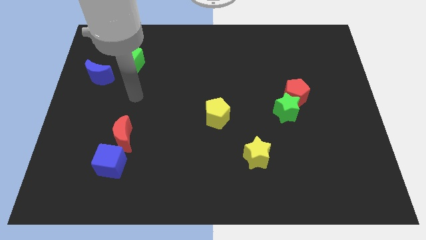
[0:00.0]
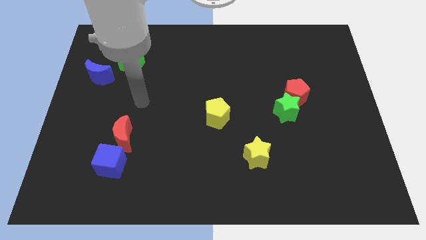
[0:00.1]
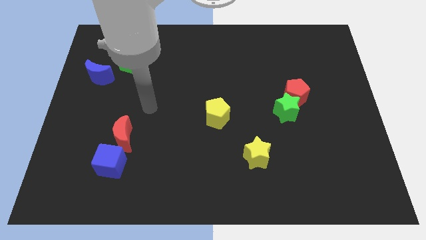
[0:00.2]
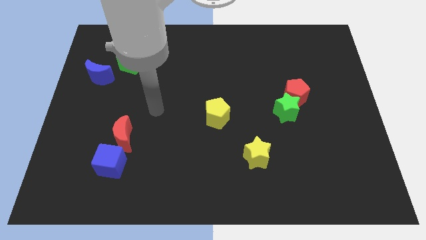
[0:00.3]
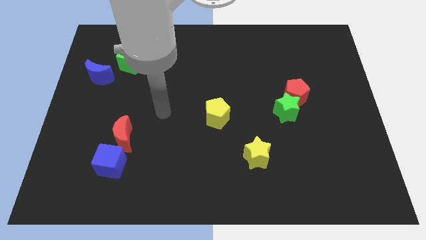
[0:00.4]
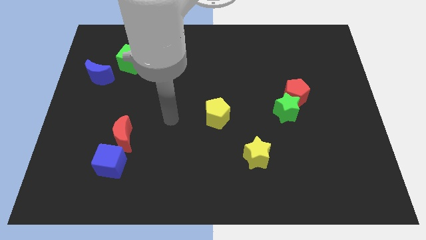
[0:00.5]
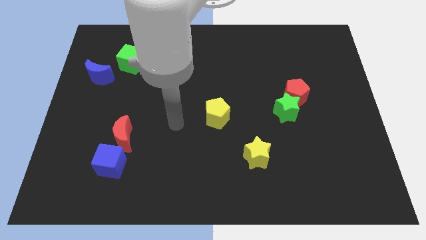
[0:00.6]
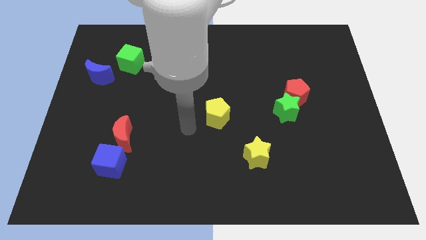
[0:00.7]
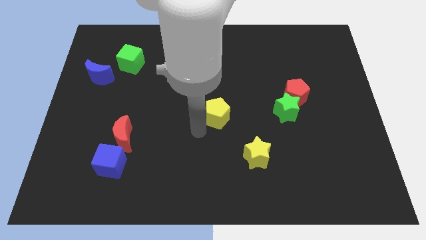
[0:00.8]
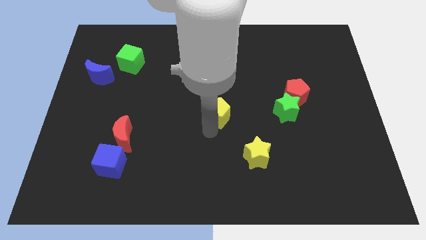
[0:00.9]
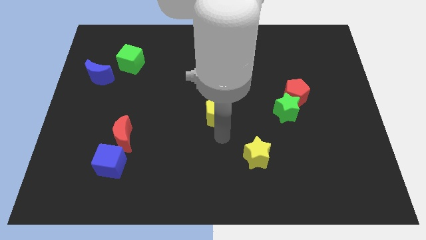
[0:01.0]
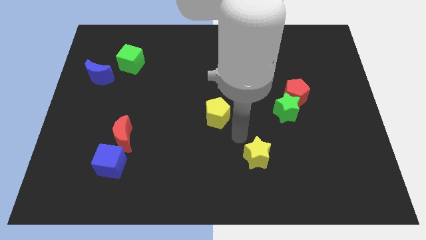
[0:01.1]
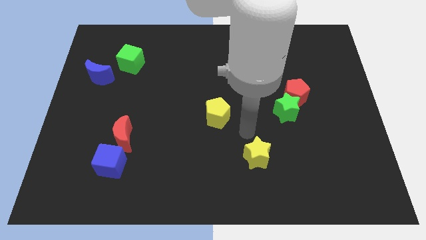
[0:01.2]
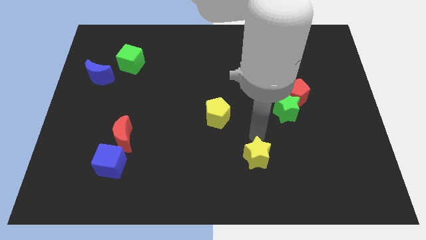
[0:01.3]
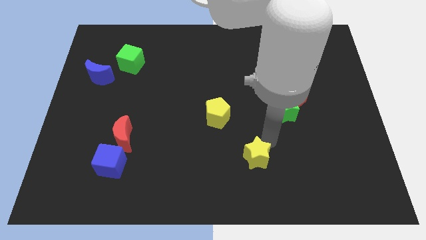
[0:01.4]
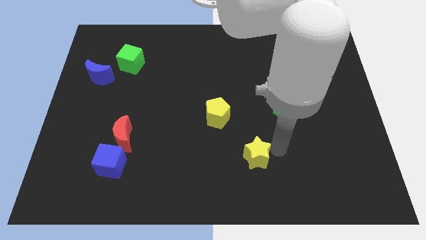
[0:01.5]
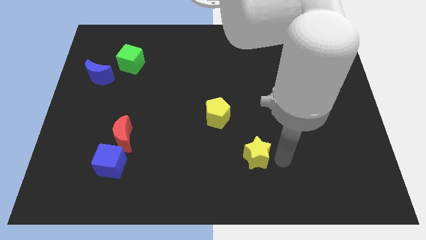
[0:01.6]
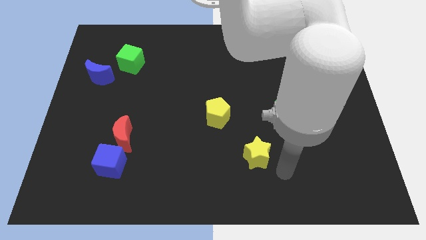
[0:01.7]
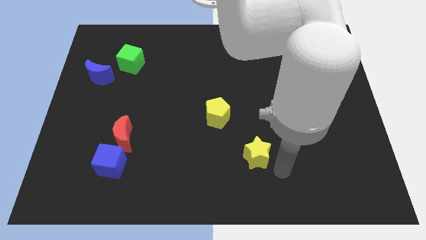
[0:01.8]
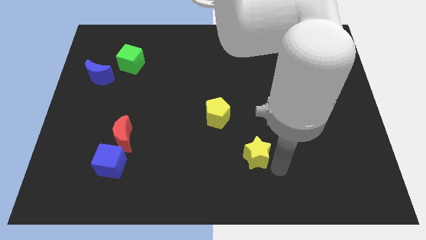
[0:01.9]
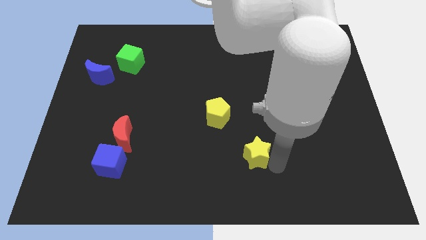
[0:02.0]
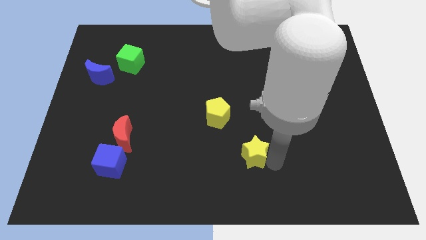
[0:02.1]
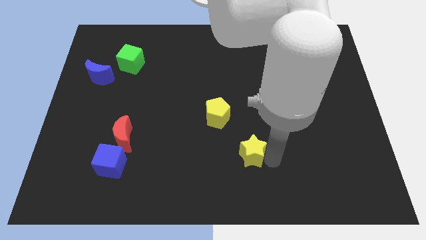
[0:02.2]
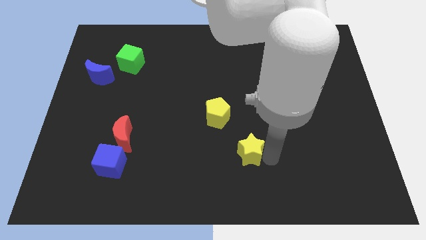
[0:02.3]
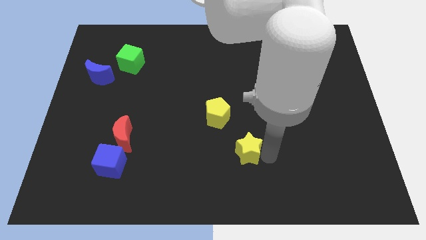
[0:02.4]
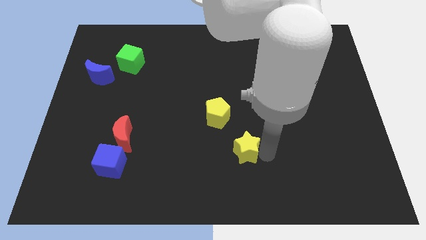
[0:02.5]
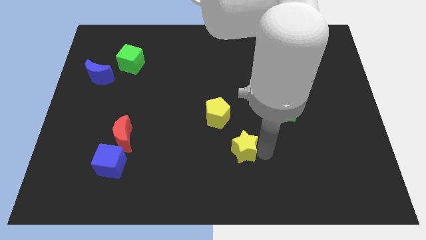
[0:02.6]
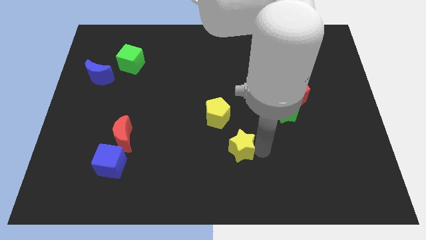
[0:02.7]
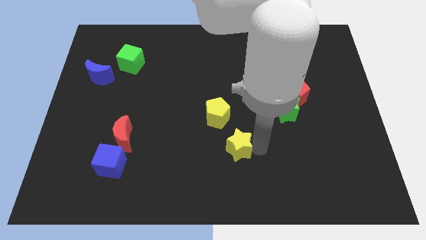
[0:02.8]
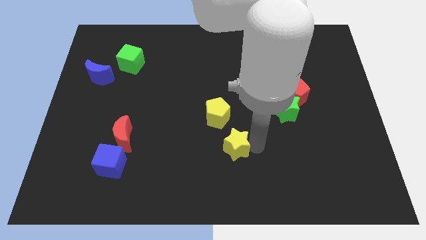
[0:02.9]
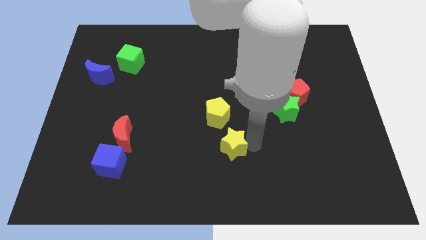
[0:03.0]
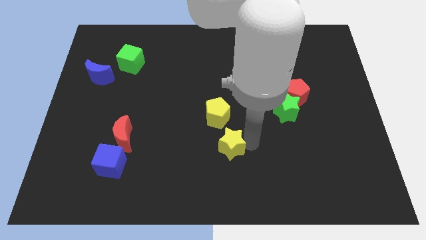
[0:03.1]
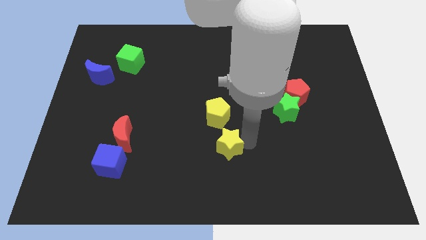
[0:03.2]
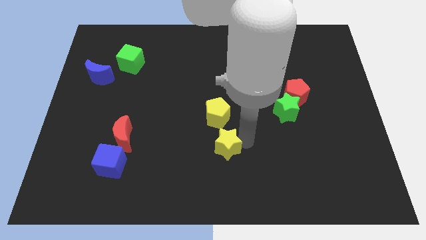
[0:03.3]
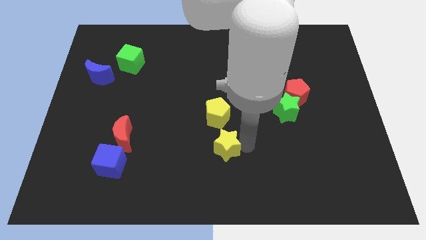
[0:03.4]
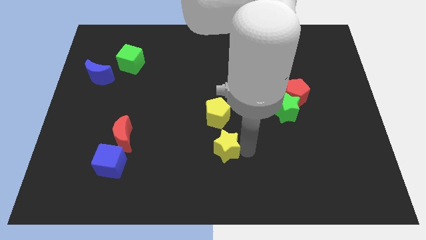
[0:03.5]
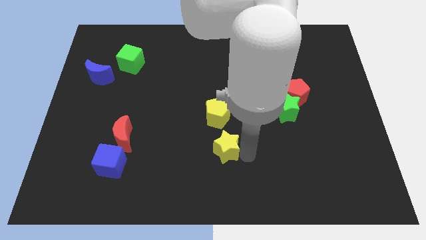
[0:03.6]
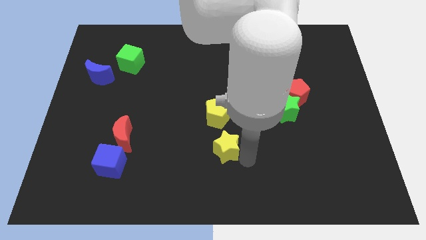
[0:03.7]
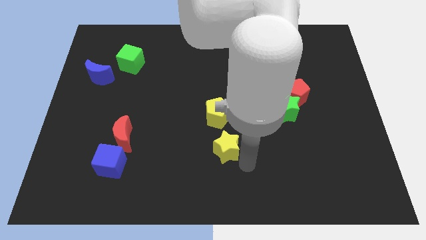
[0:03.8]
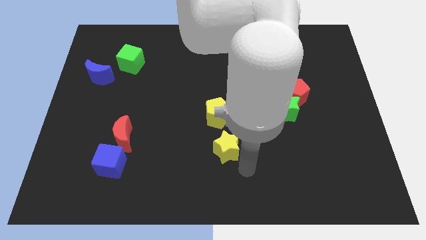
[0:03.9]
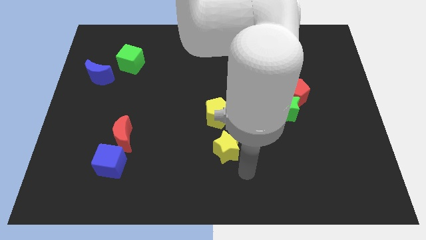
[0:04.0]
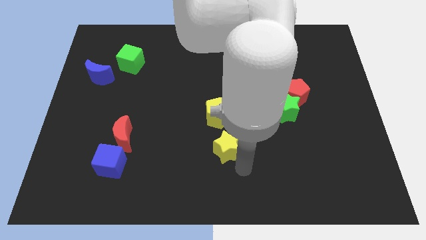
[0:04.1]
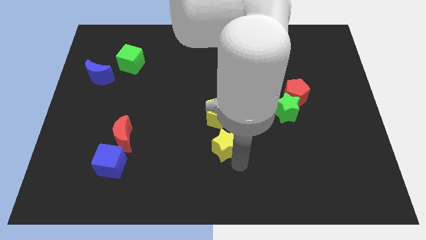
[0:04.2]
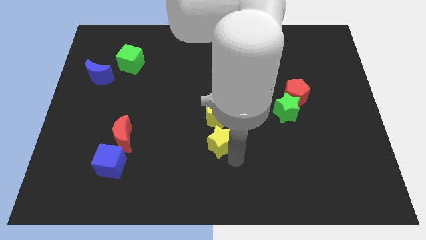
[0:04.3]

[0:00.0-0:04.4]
slide the yellow star diagonally upwards and left slightly

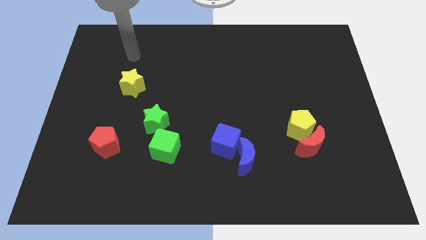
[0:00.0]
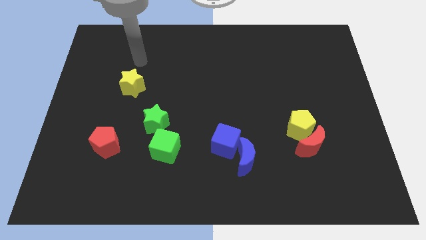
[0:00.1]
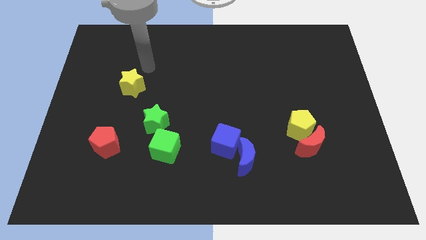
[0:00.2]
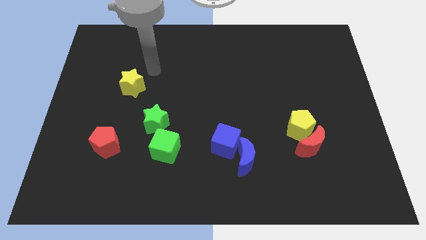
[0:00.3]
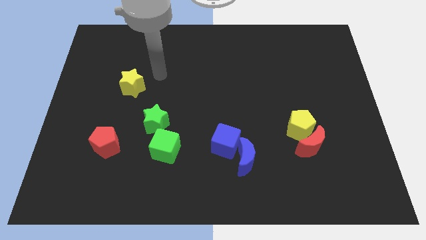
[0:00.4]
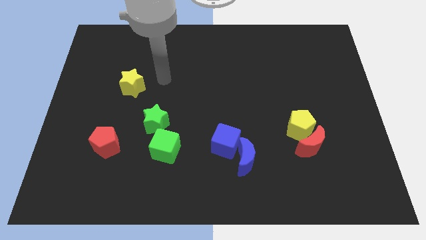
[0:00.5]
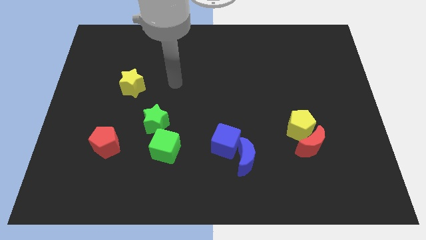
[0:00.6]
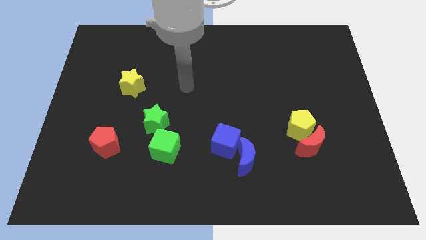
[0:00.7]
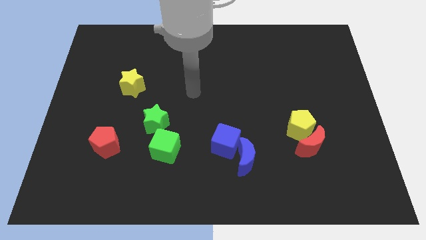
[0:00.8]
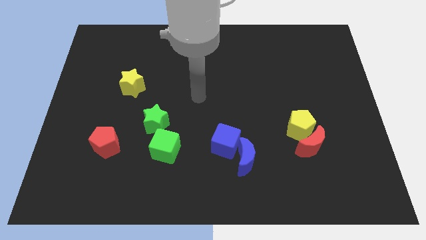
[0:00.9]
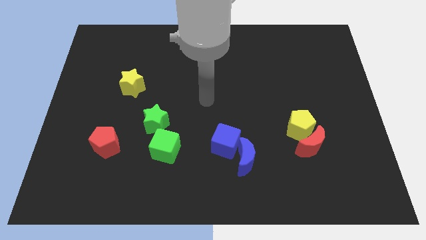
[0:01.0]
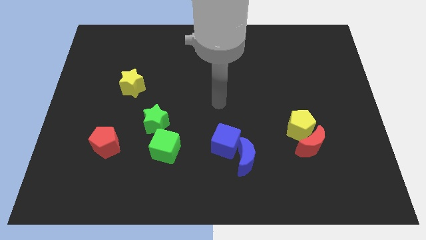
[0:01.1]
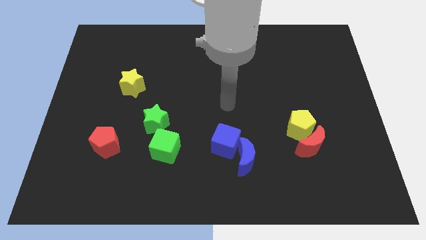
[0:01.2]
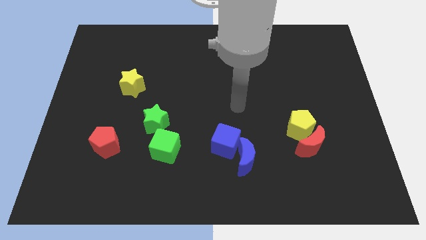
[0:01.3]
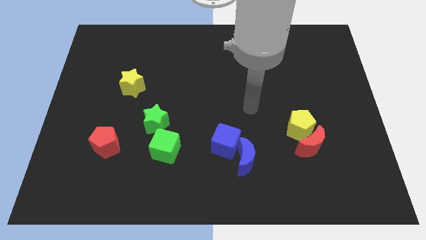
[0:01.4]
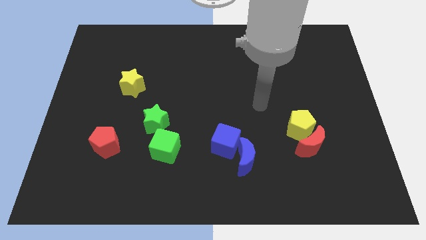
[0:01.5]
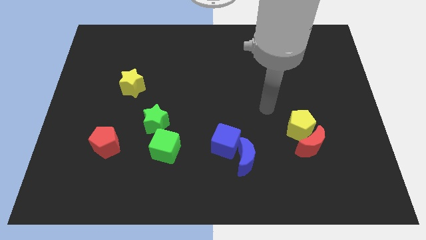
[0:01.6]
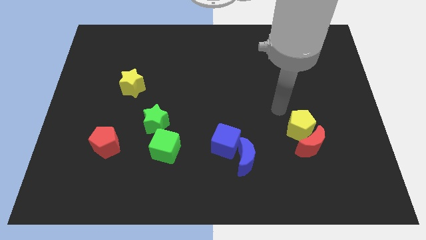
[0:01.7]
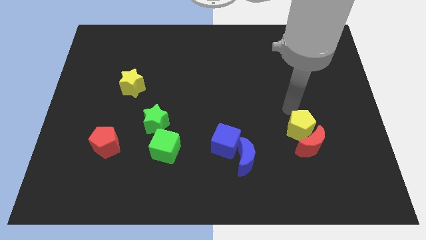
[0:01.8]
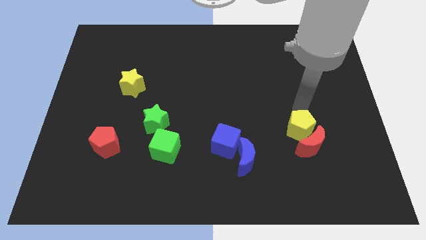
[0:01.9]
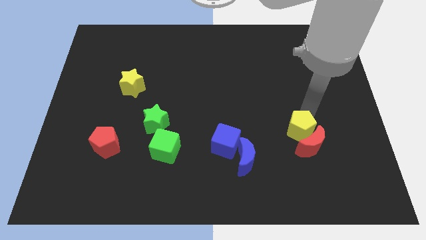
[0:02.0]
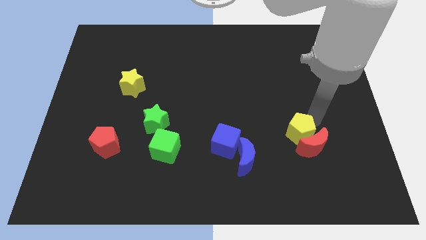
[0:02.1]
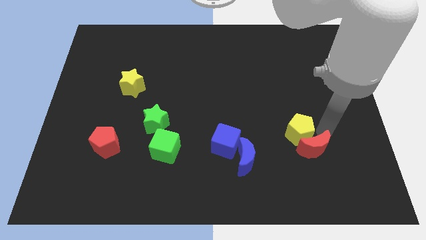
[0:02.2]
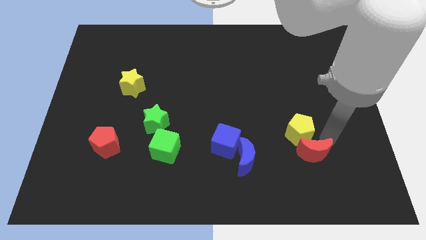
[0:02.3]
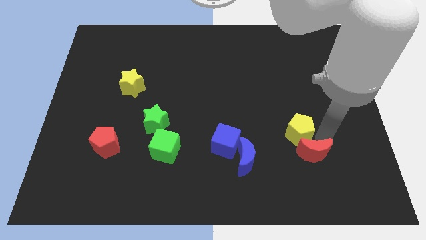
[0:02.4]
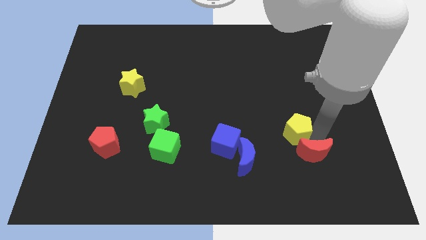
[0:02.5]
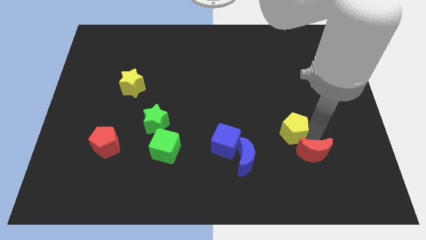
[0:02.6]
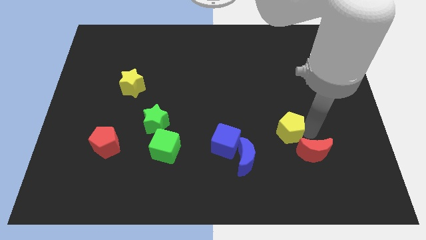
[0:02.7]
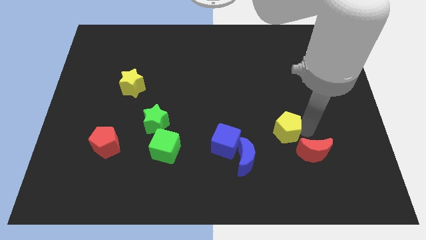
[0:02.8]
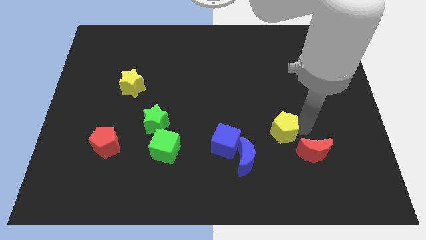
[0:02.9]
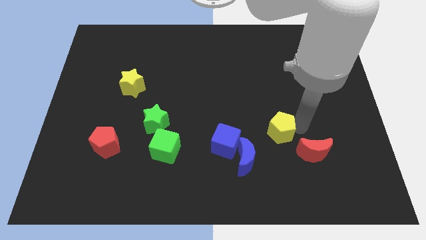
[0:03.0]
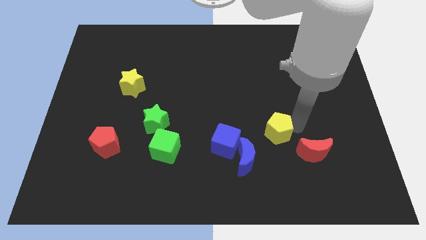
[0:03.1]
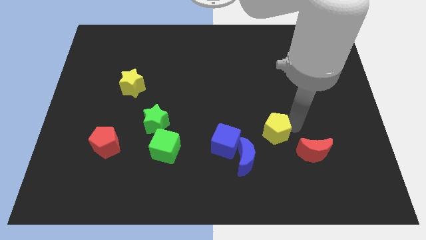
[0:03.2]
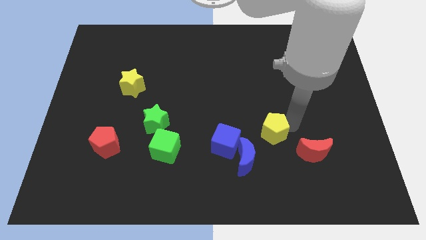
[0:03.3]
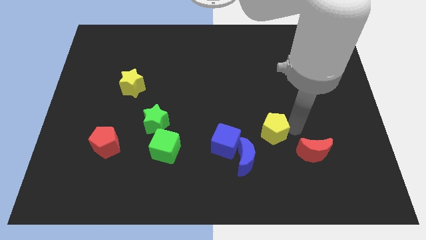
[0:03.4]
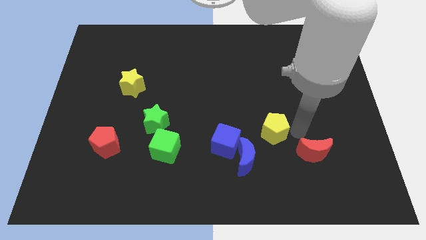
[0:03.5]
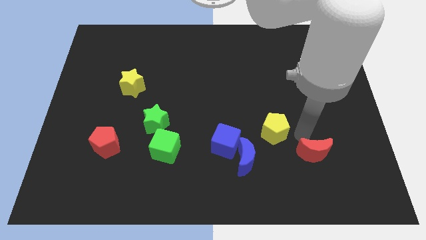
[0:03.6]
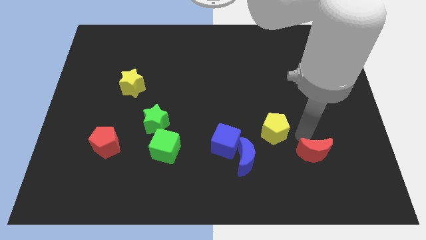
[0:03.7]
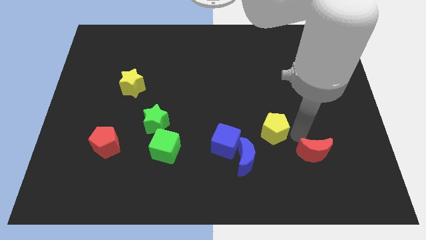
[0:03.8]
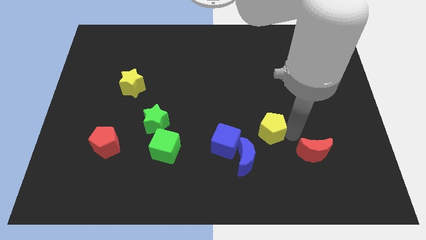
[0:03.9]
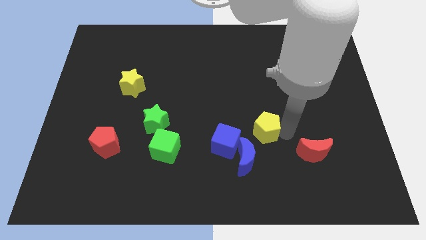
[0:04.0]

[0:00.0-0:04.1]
slide the yellow pentagon to the left a bit
